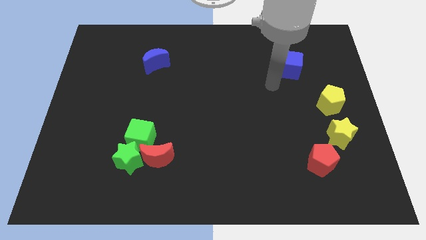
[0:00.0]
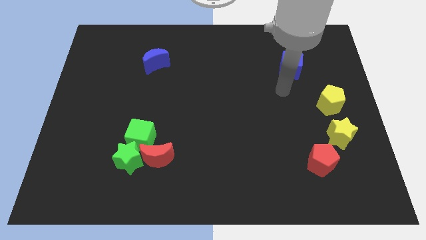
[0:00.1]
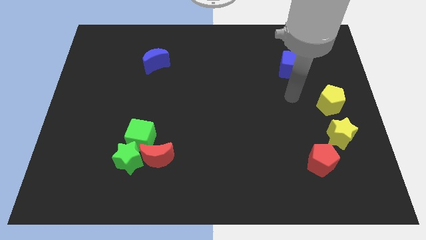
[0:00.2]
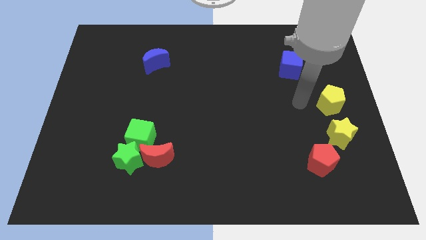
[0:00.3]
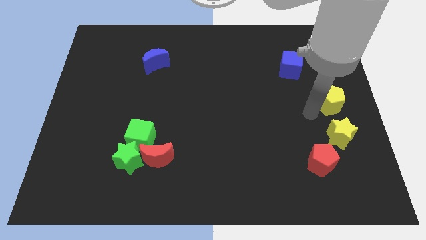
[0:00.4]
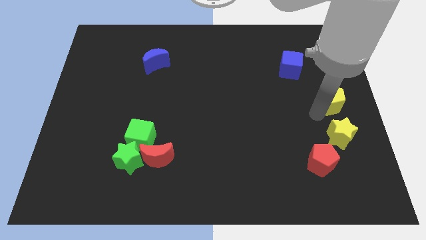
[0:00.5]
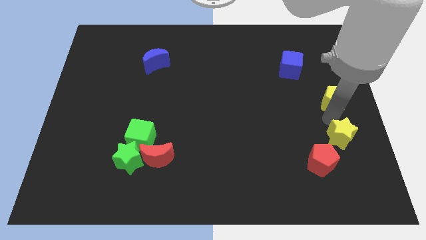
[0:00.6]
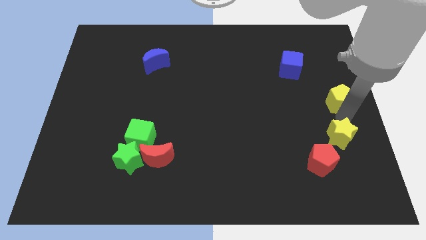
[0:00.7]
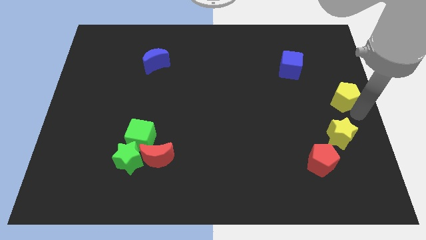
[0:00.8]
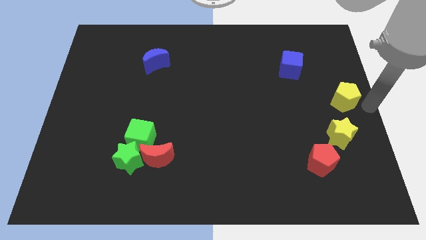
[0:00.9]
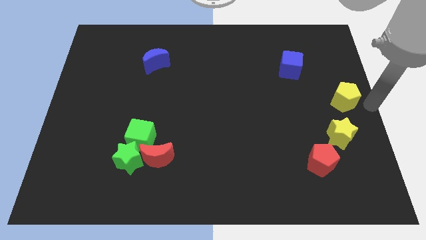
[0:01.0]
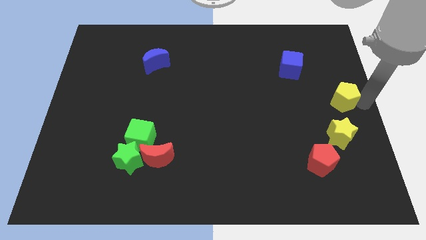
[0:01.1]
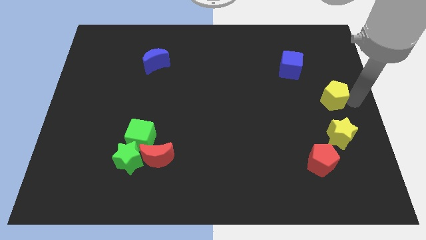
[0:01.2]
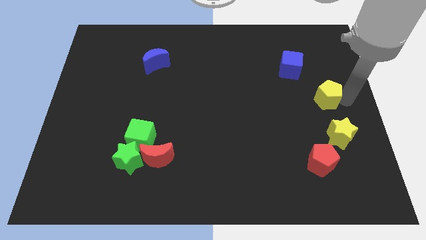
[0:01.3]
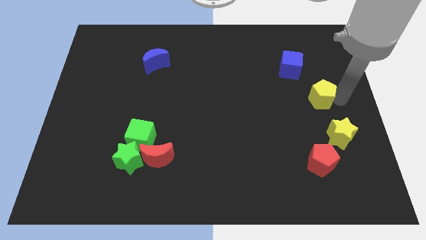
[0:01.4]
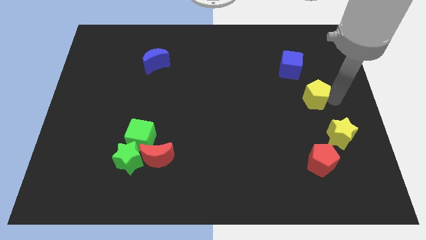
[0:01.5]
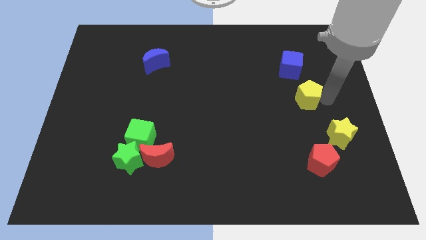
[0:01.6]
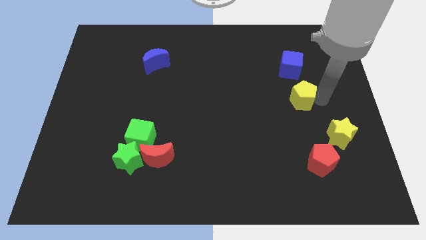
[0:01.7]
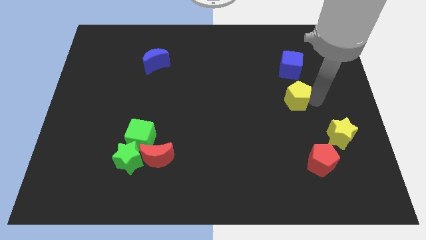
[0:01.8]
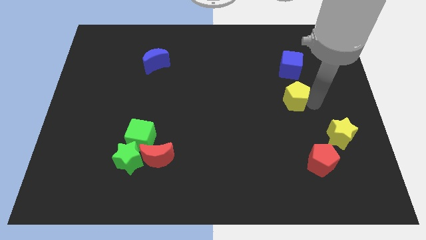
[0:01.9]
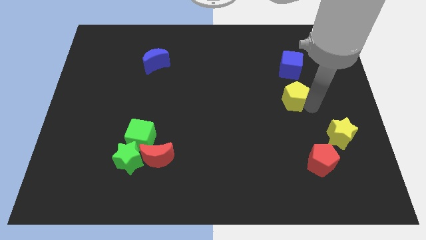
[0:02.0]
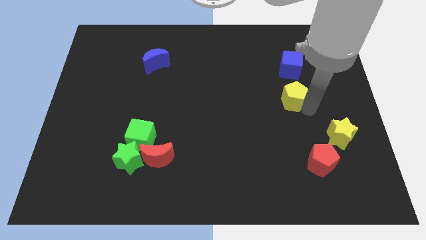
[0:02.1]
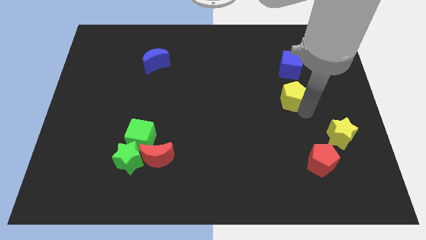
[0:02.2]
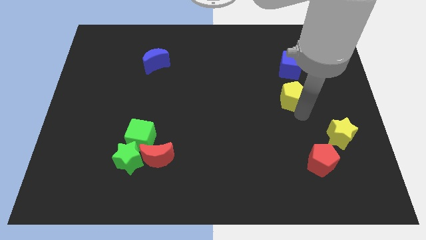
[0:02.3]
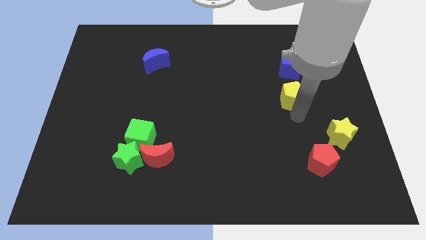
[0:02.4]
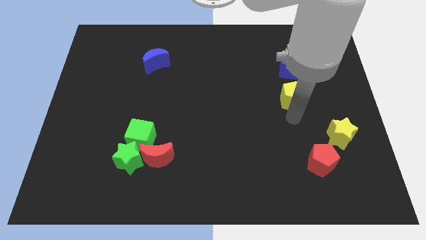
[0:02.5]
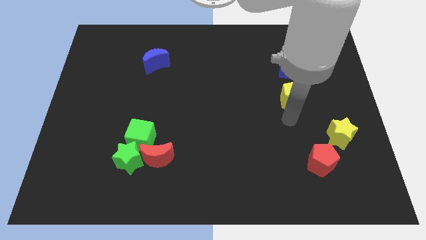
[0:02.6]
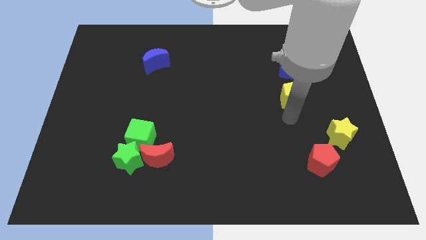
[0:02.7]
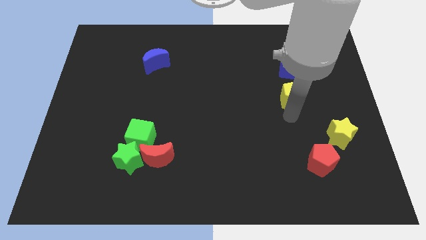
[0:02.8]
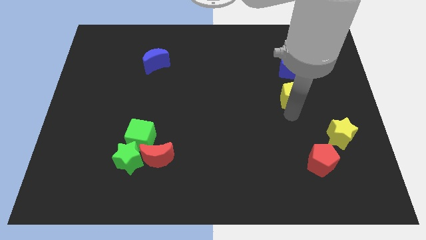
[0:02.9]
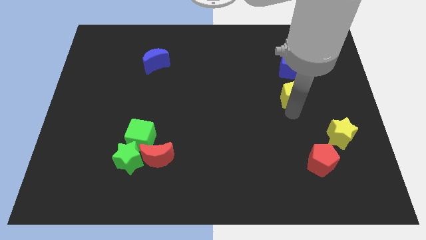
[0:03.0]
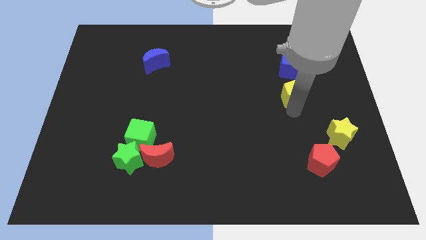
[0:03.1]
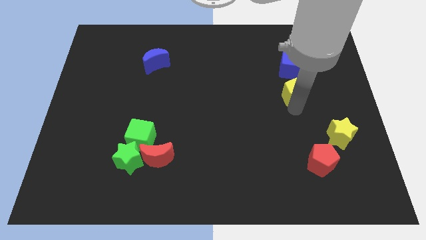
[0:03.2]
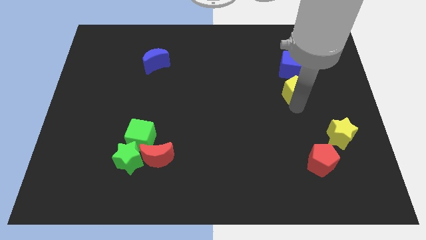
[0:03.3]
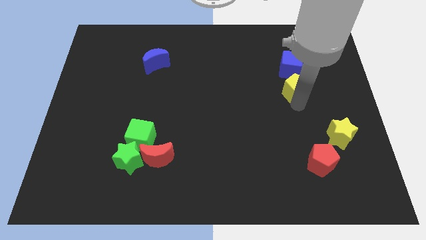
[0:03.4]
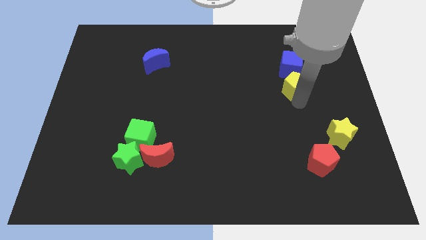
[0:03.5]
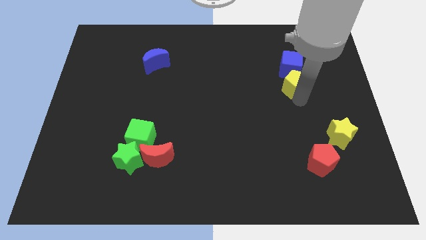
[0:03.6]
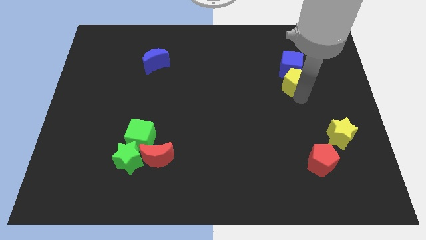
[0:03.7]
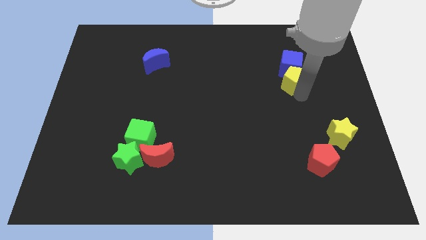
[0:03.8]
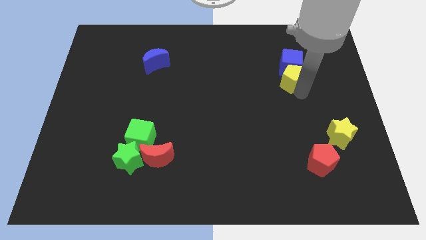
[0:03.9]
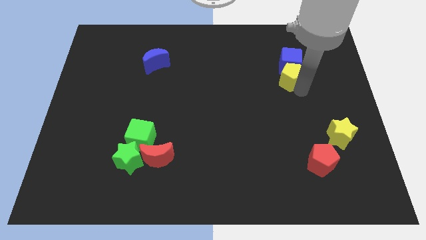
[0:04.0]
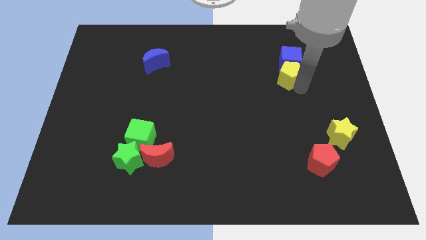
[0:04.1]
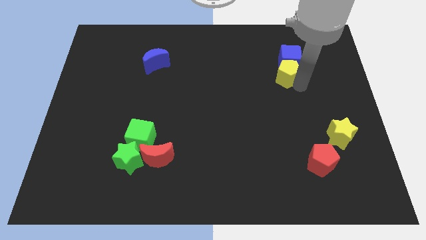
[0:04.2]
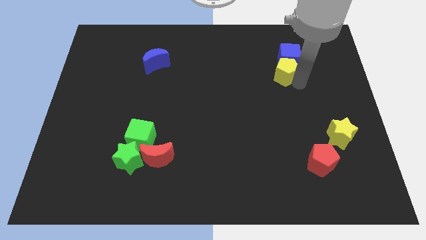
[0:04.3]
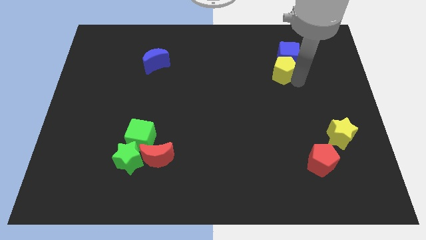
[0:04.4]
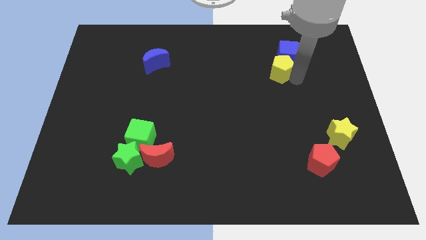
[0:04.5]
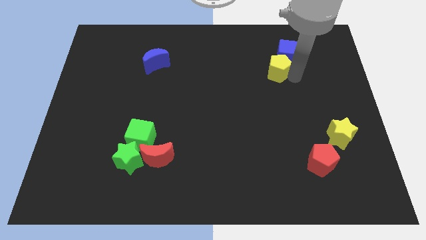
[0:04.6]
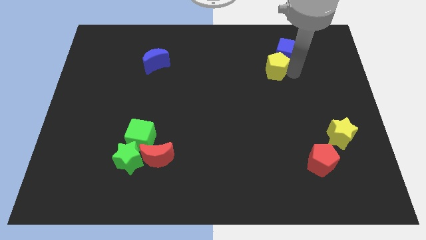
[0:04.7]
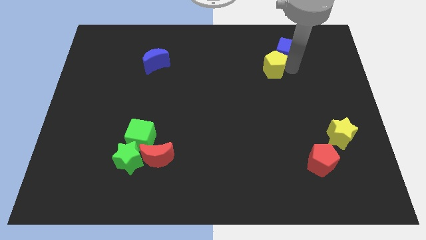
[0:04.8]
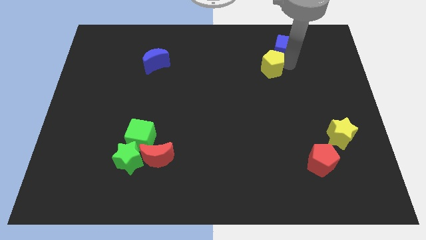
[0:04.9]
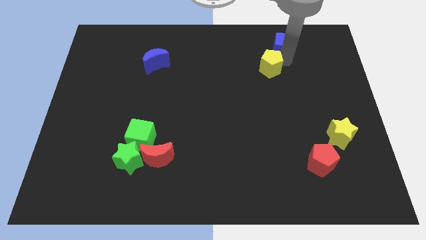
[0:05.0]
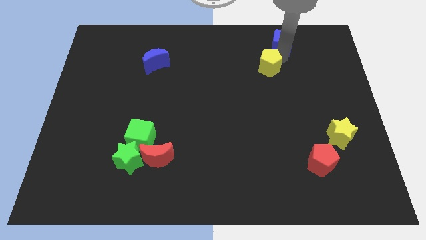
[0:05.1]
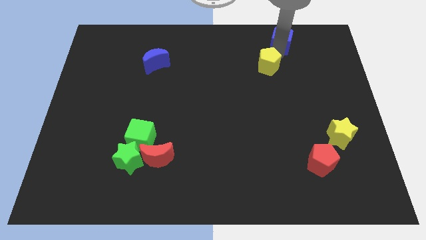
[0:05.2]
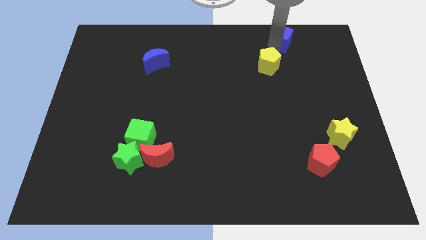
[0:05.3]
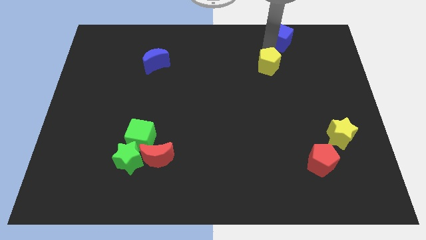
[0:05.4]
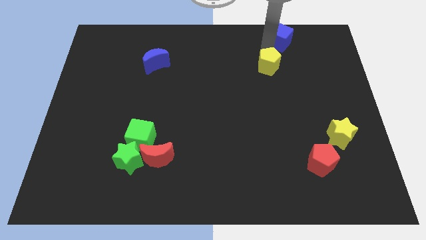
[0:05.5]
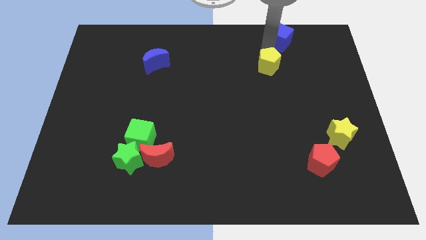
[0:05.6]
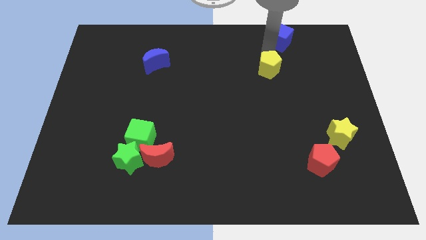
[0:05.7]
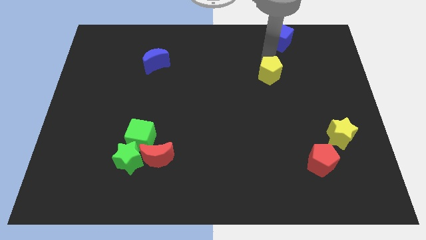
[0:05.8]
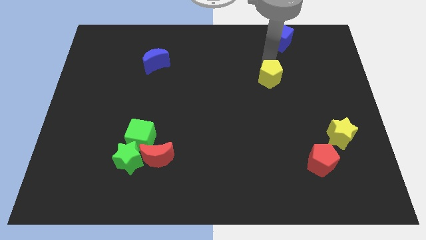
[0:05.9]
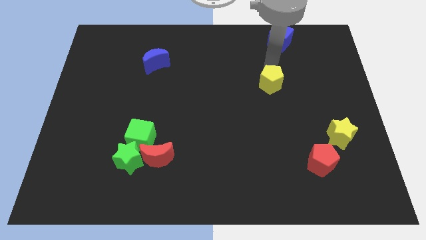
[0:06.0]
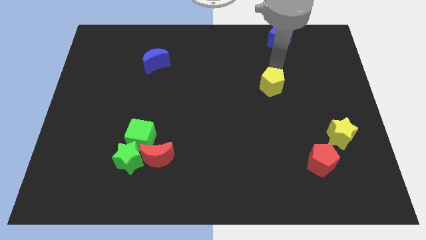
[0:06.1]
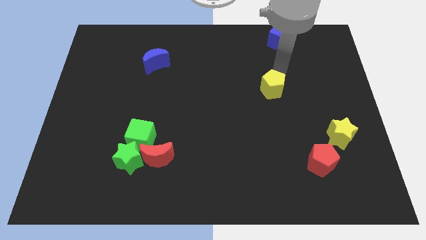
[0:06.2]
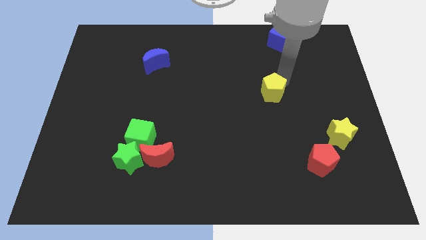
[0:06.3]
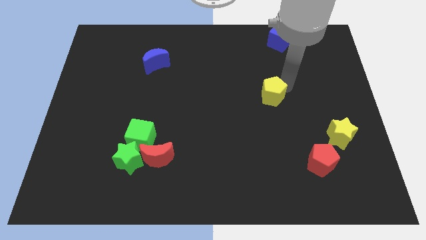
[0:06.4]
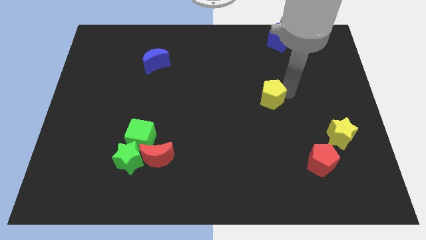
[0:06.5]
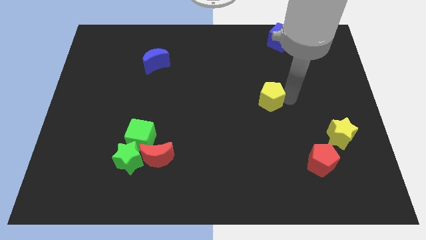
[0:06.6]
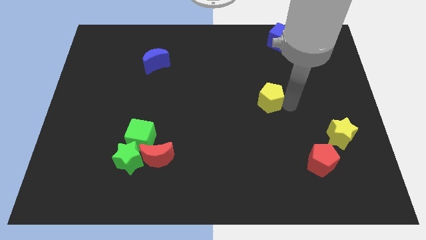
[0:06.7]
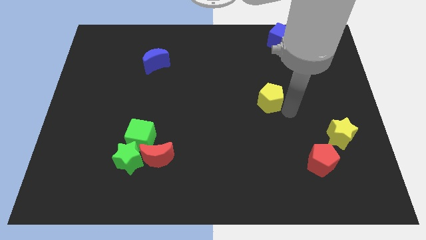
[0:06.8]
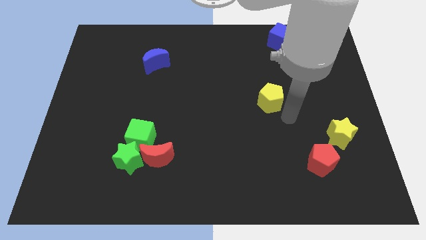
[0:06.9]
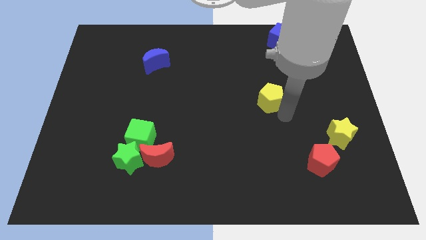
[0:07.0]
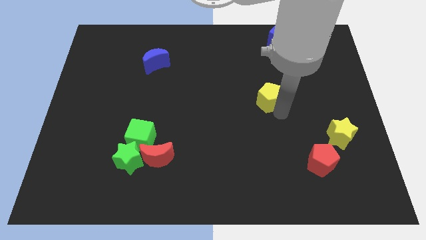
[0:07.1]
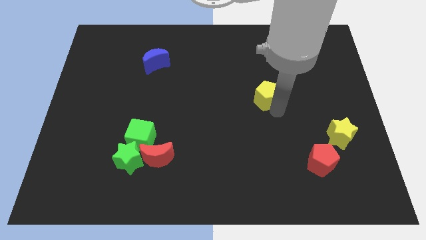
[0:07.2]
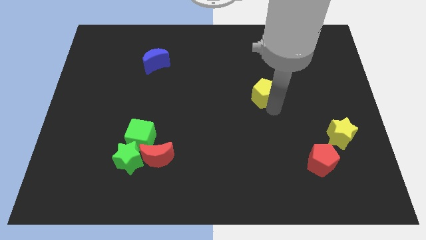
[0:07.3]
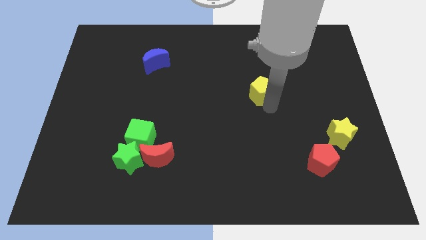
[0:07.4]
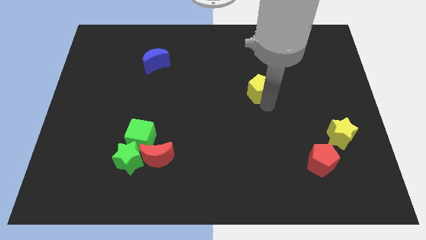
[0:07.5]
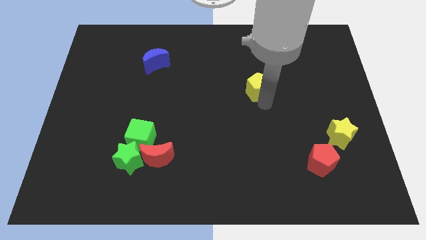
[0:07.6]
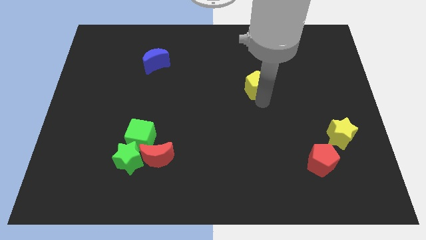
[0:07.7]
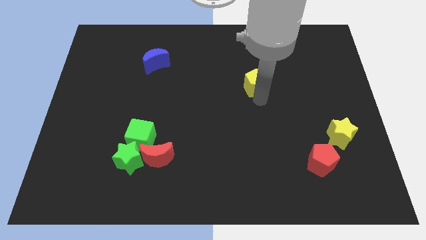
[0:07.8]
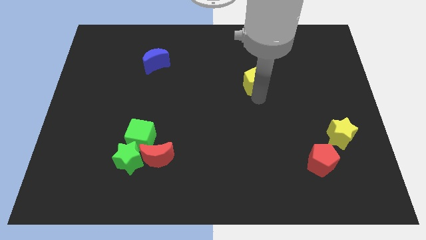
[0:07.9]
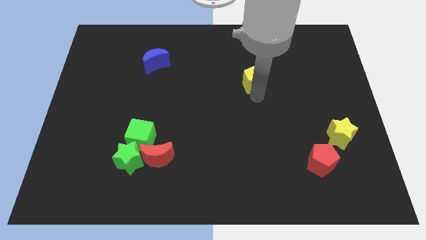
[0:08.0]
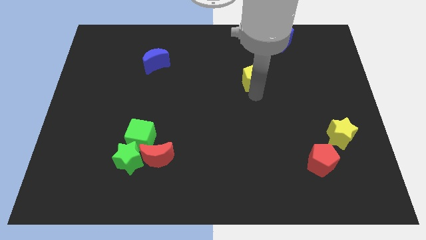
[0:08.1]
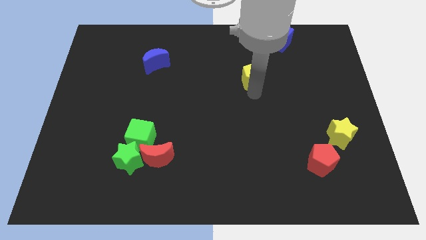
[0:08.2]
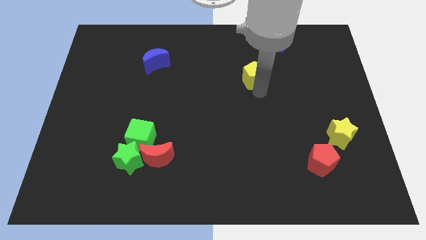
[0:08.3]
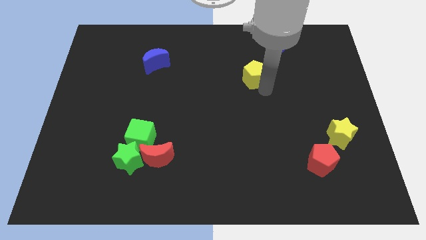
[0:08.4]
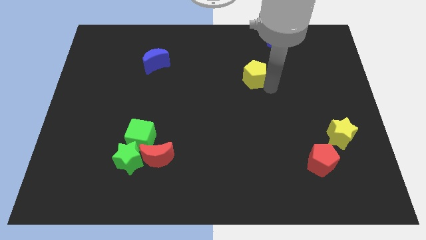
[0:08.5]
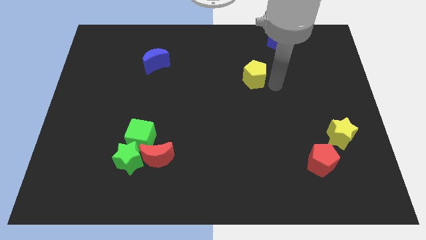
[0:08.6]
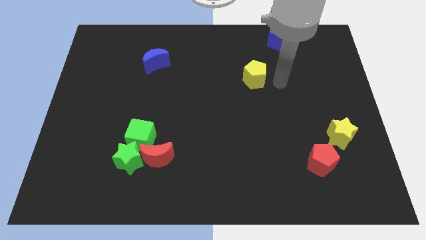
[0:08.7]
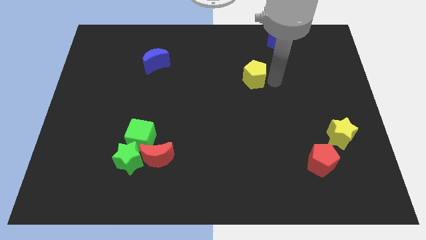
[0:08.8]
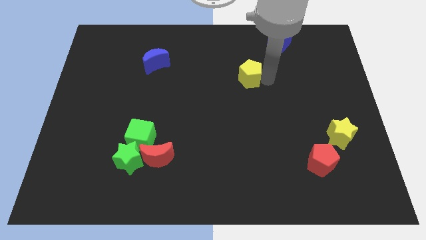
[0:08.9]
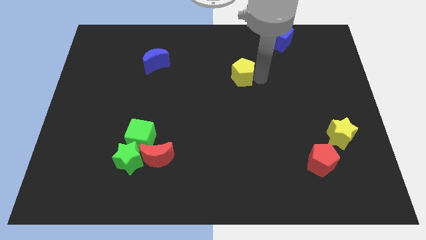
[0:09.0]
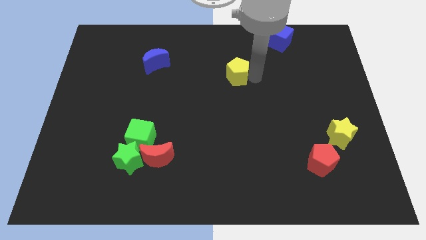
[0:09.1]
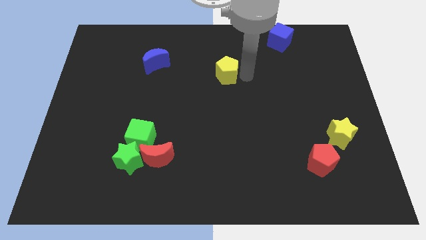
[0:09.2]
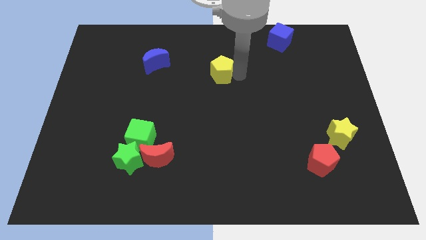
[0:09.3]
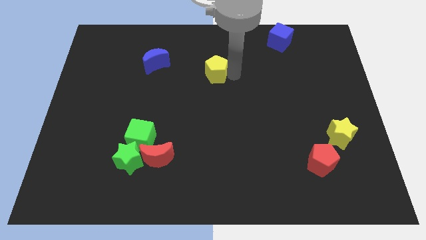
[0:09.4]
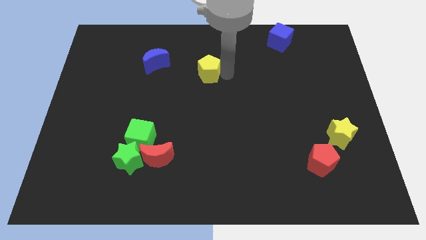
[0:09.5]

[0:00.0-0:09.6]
slide the yellow pentagon to the right side of the blue moon
